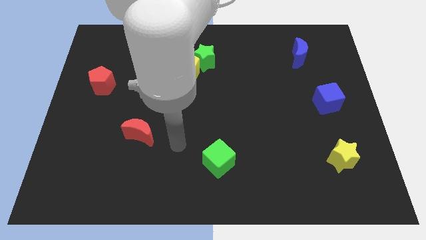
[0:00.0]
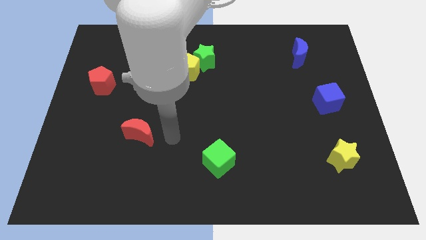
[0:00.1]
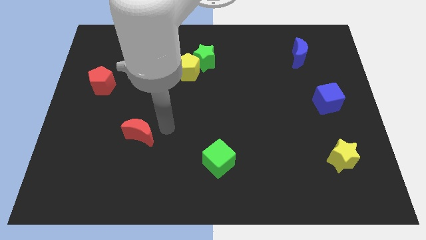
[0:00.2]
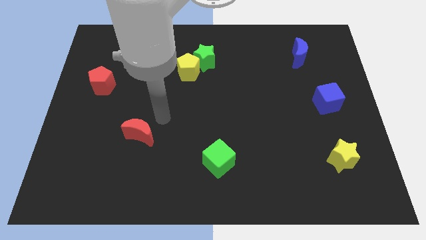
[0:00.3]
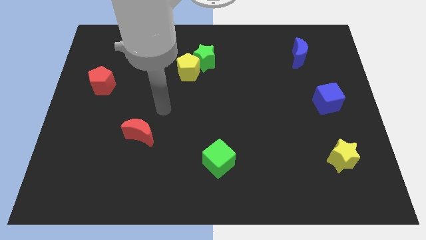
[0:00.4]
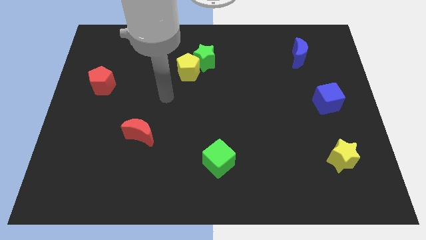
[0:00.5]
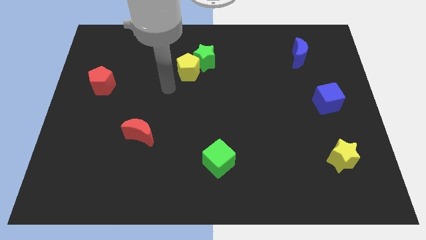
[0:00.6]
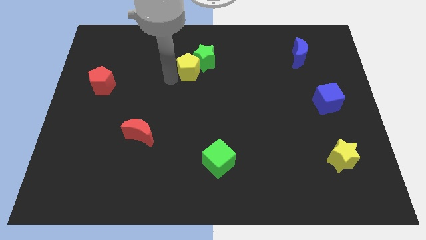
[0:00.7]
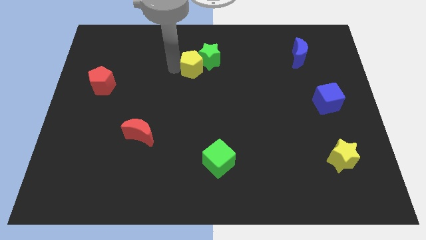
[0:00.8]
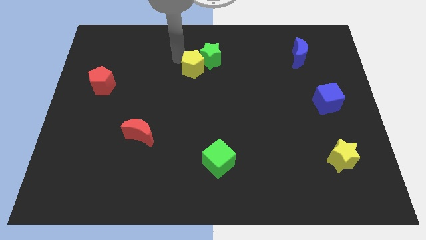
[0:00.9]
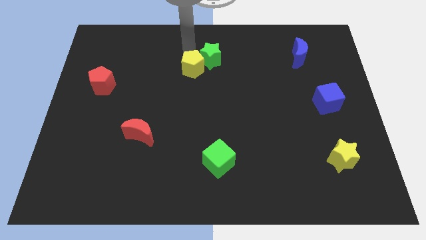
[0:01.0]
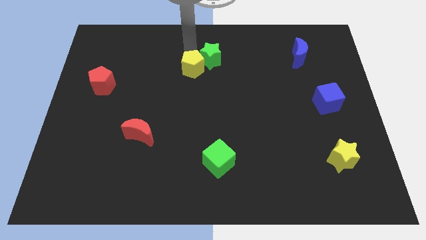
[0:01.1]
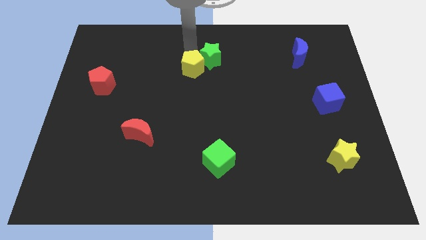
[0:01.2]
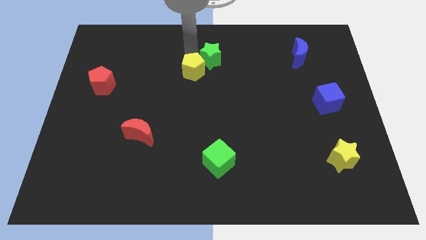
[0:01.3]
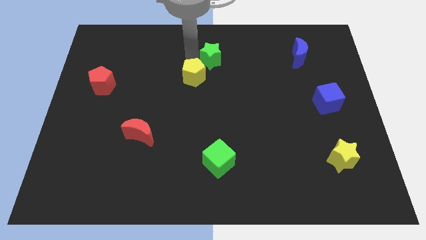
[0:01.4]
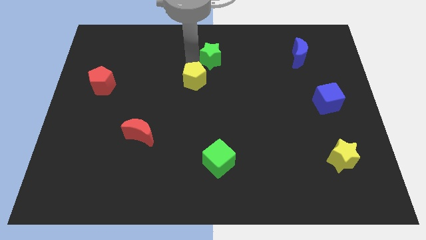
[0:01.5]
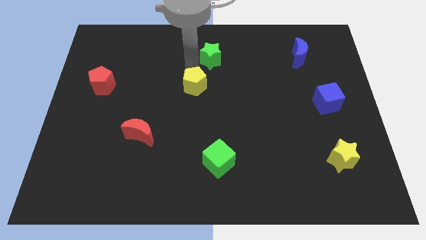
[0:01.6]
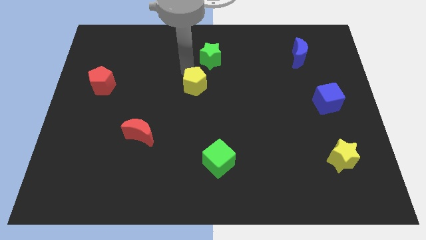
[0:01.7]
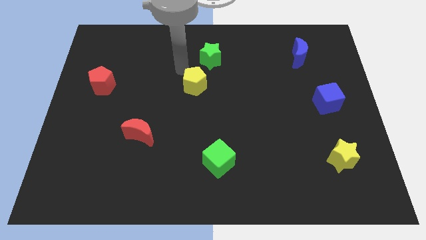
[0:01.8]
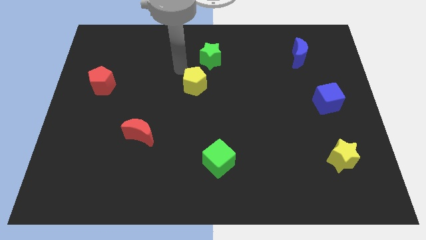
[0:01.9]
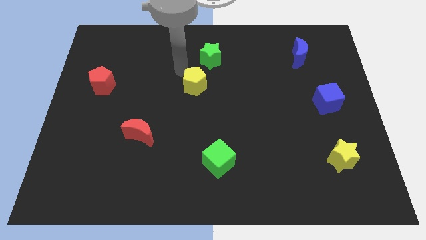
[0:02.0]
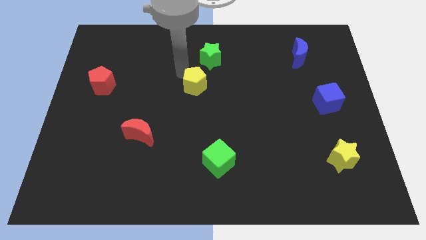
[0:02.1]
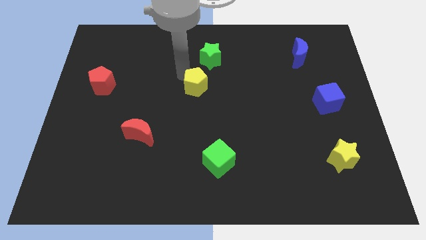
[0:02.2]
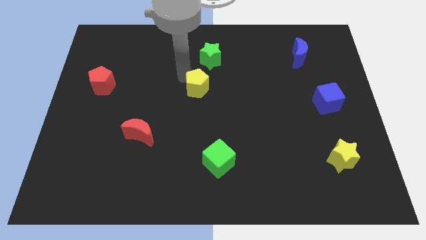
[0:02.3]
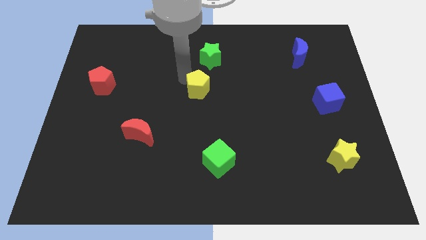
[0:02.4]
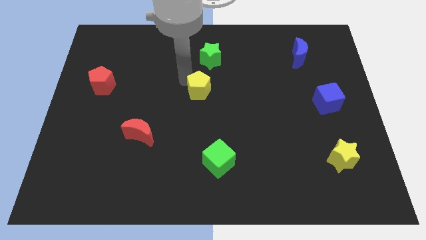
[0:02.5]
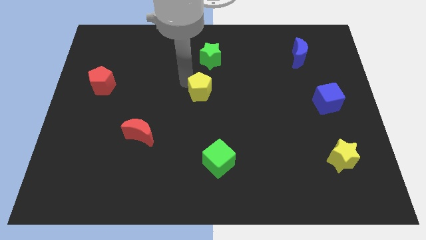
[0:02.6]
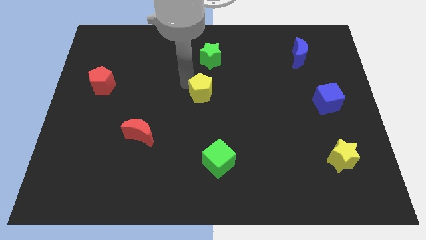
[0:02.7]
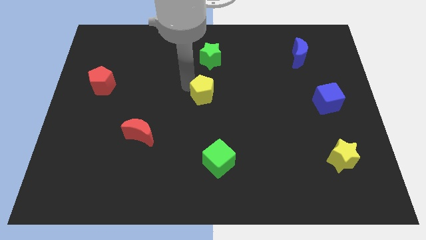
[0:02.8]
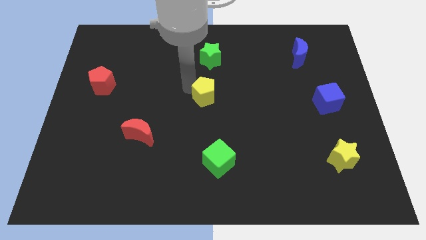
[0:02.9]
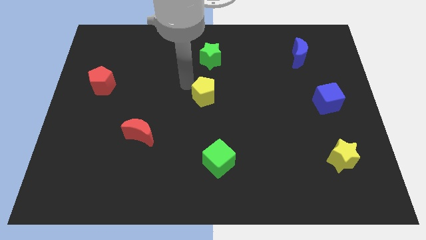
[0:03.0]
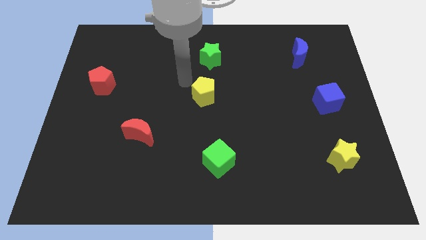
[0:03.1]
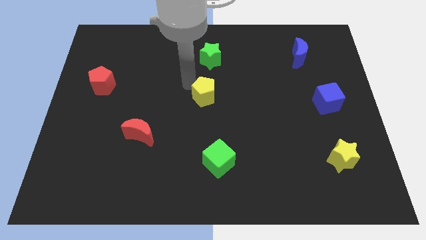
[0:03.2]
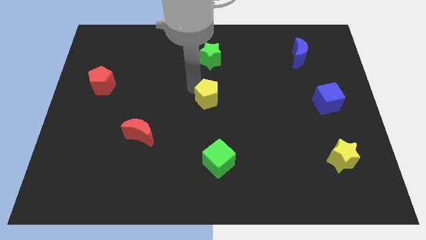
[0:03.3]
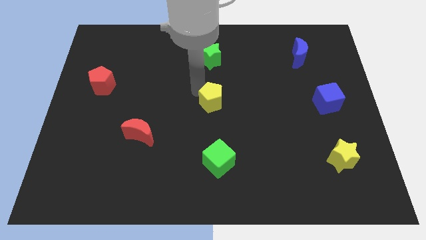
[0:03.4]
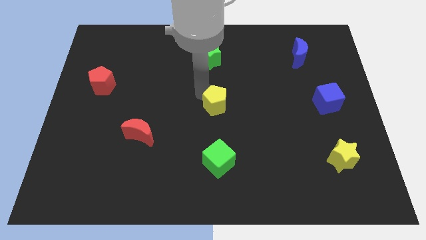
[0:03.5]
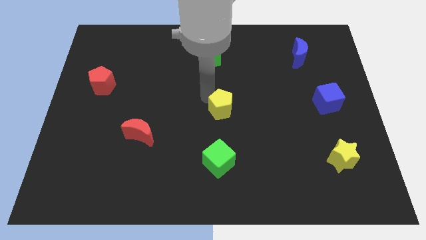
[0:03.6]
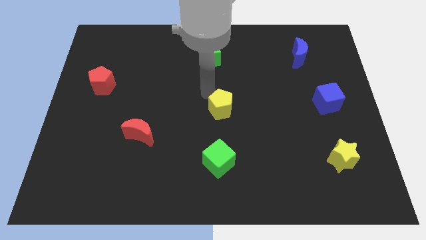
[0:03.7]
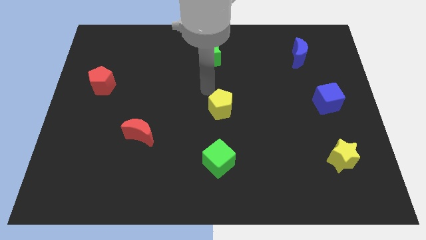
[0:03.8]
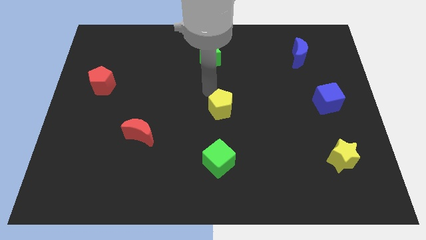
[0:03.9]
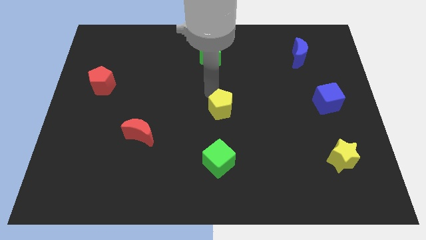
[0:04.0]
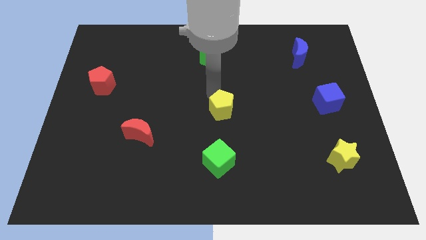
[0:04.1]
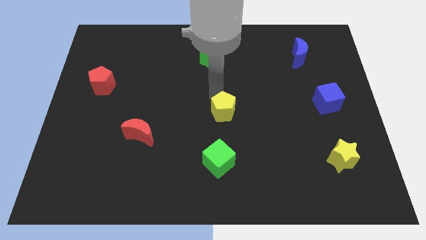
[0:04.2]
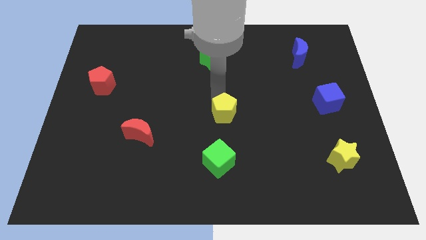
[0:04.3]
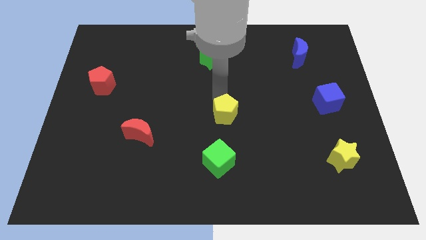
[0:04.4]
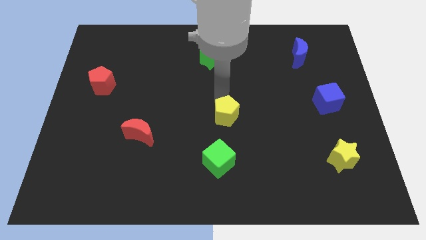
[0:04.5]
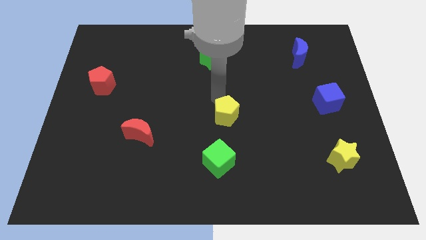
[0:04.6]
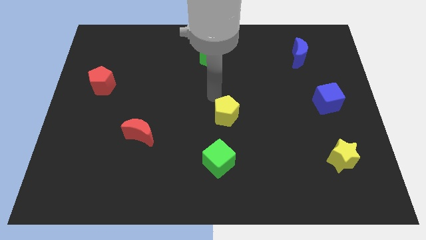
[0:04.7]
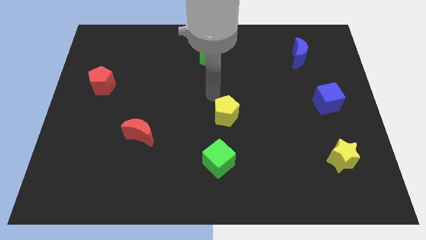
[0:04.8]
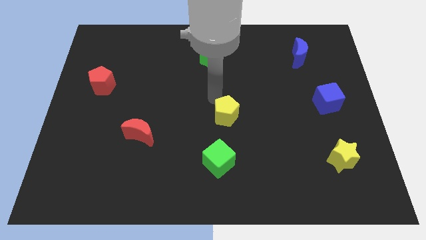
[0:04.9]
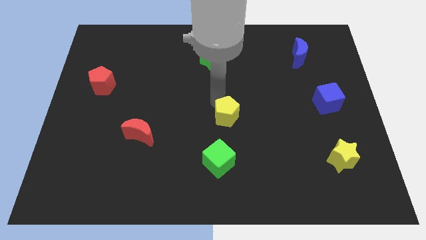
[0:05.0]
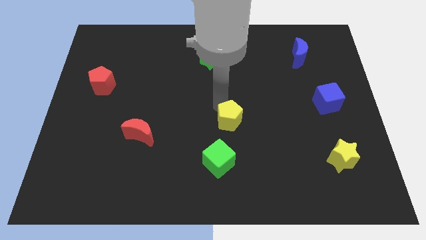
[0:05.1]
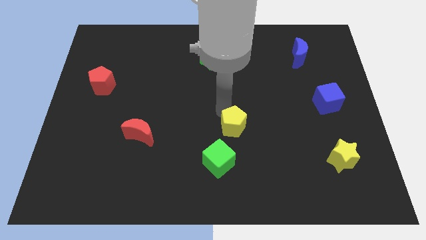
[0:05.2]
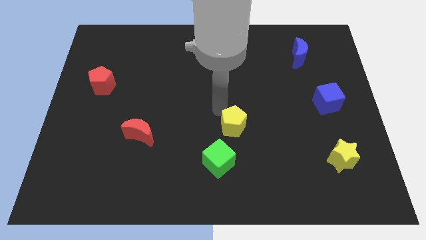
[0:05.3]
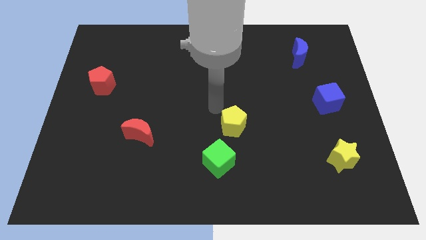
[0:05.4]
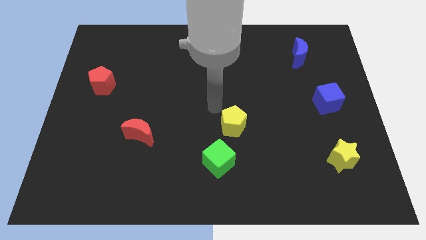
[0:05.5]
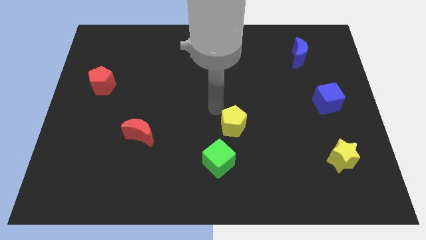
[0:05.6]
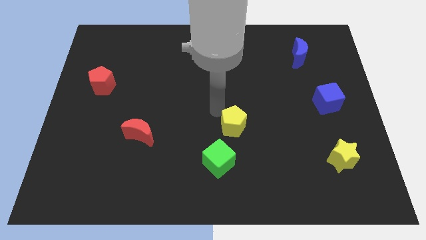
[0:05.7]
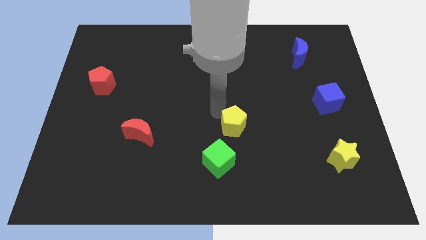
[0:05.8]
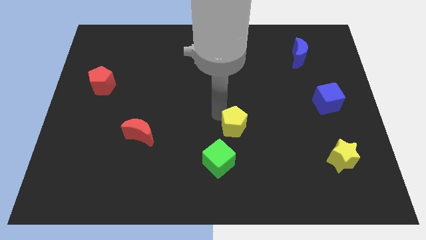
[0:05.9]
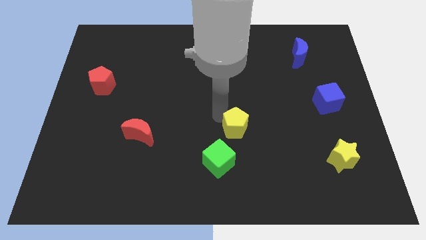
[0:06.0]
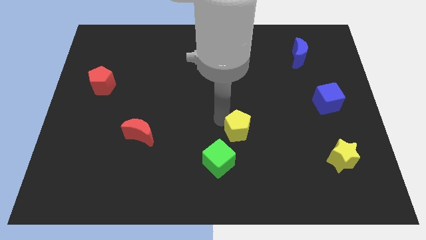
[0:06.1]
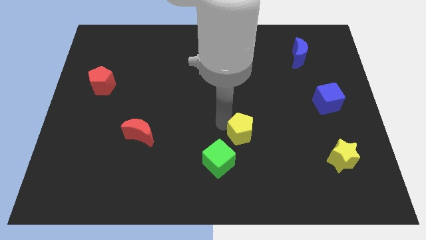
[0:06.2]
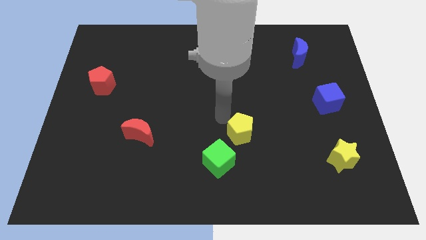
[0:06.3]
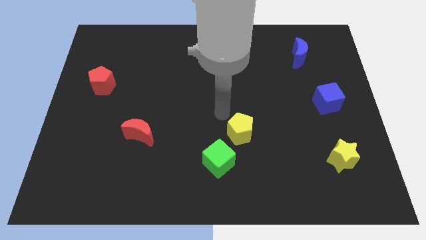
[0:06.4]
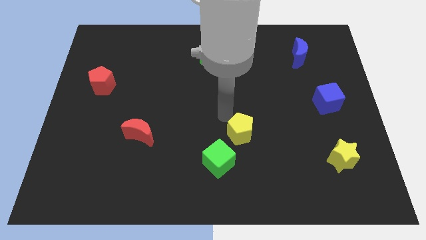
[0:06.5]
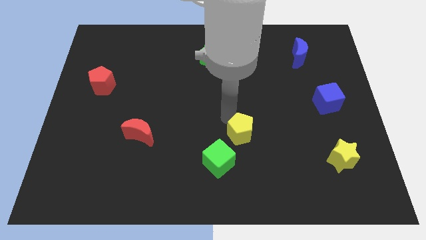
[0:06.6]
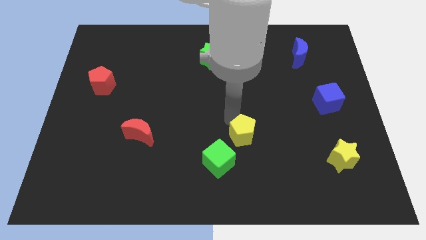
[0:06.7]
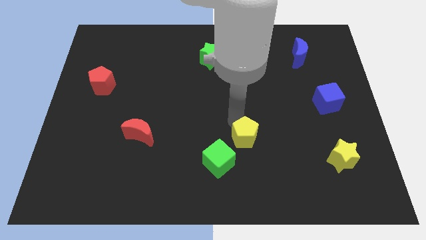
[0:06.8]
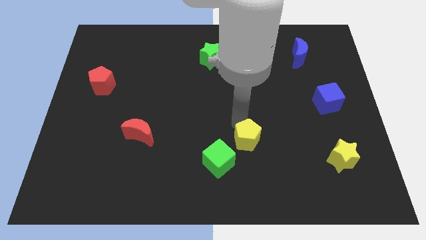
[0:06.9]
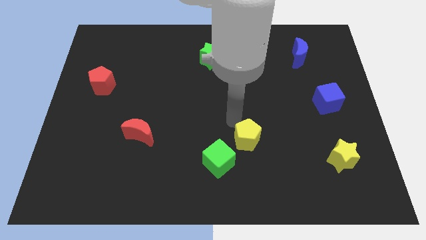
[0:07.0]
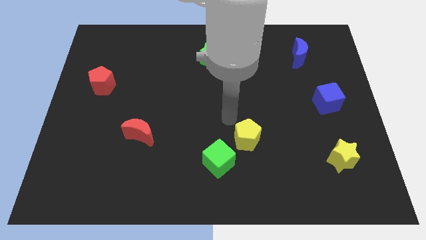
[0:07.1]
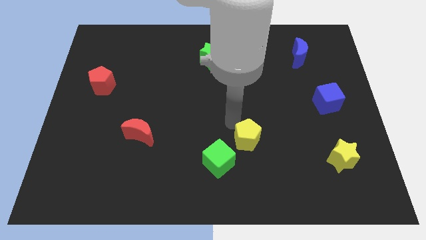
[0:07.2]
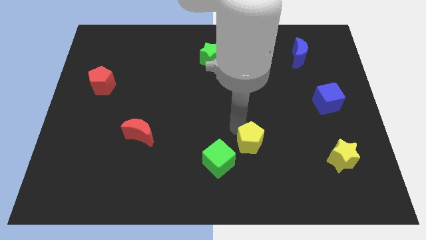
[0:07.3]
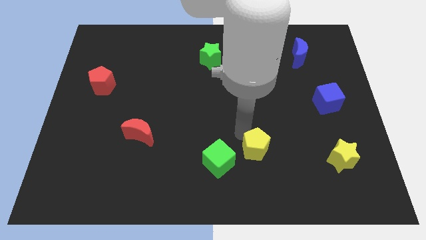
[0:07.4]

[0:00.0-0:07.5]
move the yellow pentagon to the right of the green cube
